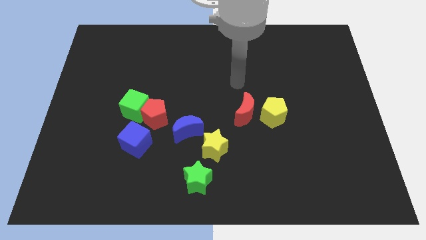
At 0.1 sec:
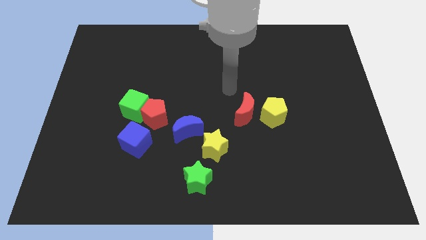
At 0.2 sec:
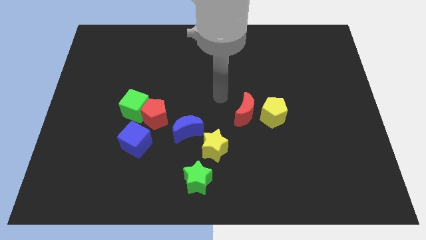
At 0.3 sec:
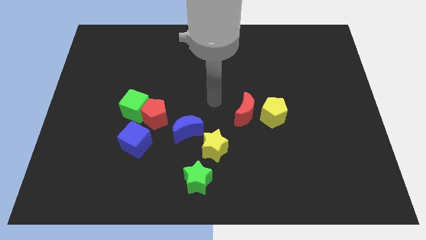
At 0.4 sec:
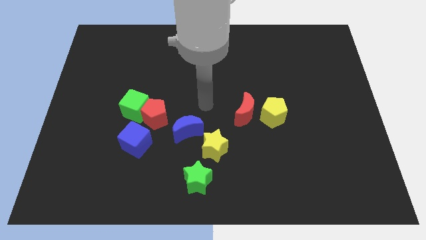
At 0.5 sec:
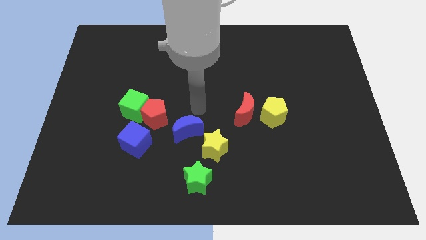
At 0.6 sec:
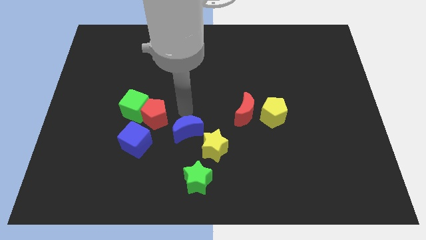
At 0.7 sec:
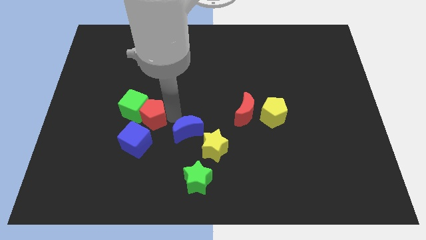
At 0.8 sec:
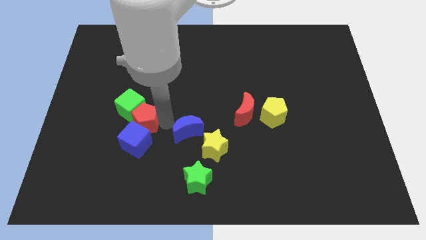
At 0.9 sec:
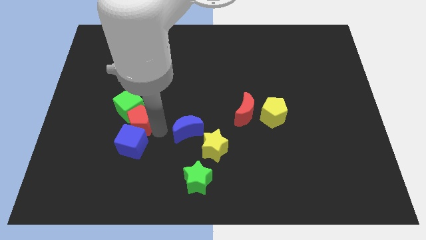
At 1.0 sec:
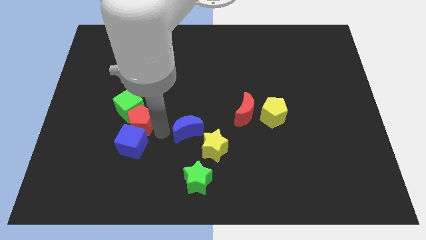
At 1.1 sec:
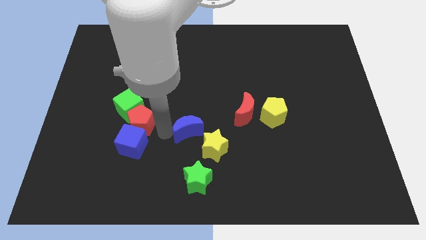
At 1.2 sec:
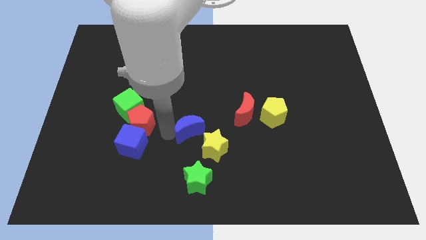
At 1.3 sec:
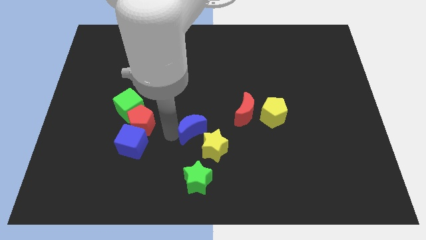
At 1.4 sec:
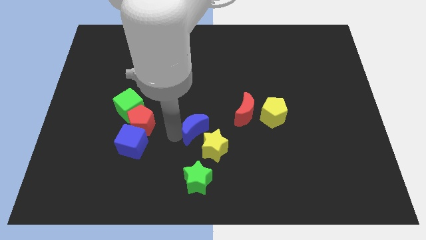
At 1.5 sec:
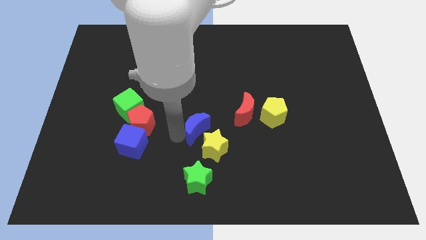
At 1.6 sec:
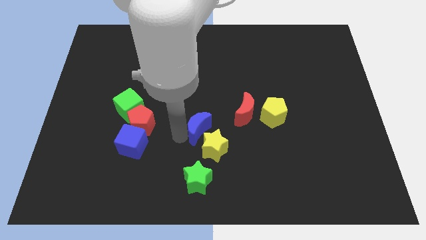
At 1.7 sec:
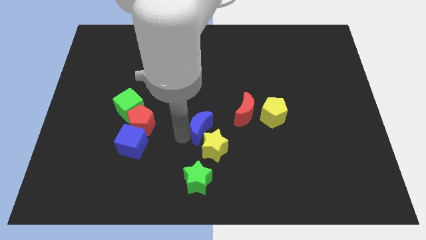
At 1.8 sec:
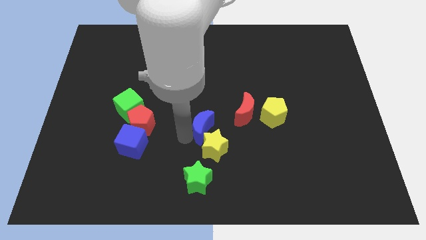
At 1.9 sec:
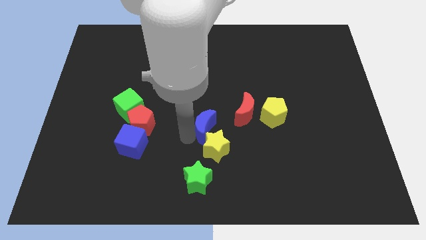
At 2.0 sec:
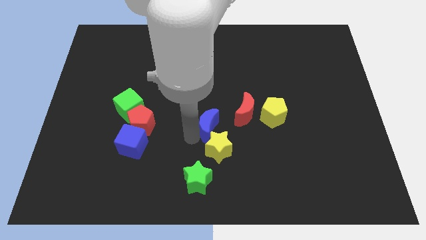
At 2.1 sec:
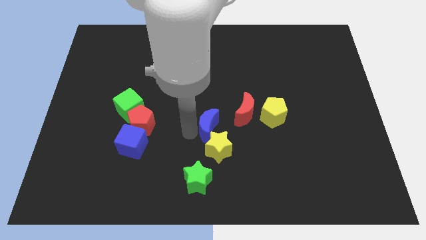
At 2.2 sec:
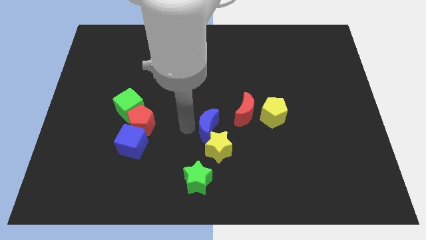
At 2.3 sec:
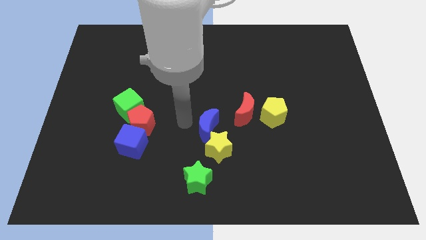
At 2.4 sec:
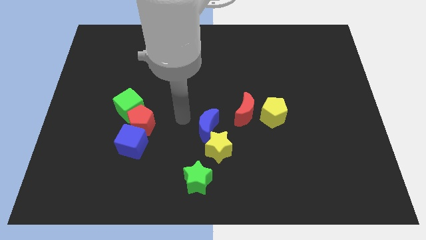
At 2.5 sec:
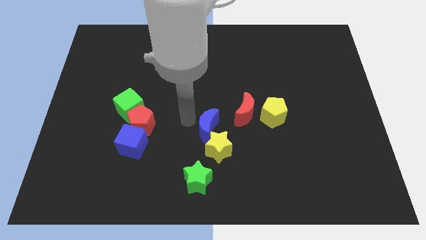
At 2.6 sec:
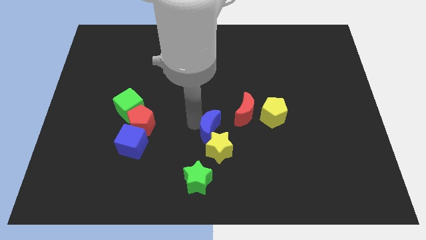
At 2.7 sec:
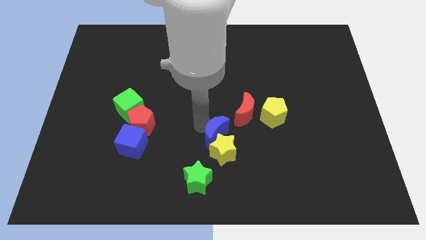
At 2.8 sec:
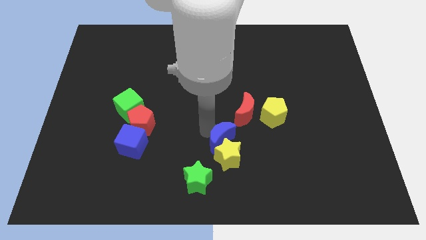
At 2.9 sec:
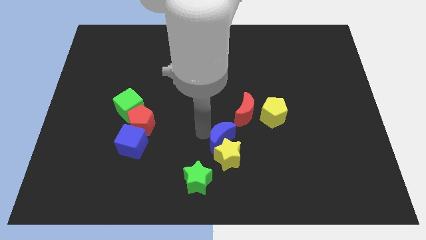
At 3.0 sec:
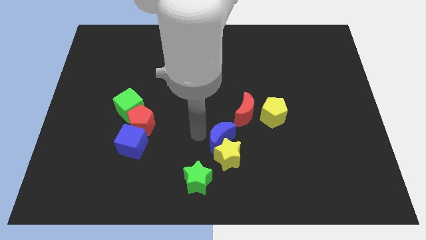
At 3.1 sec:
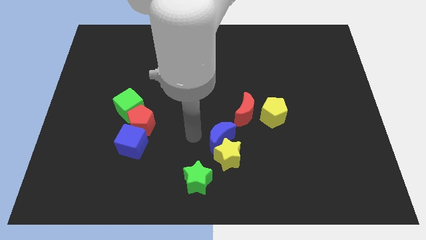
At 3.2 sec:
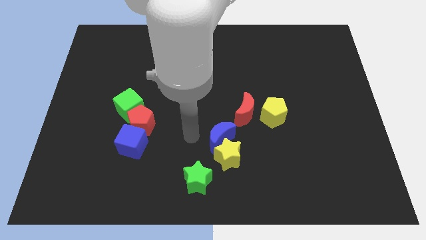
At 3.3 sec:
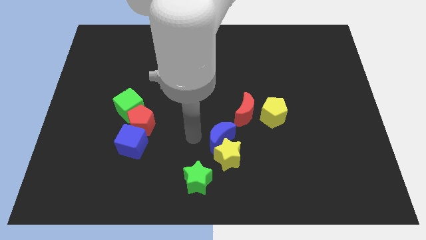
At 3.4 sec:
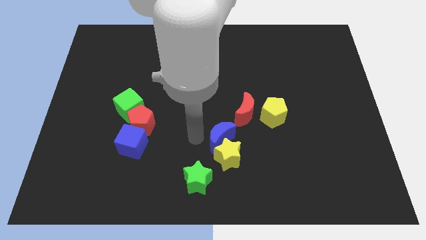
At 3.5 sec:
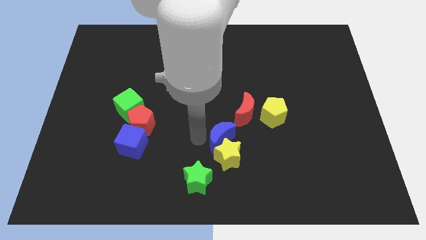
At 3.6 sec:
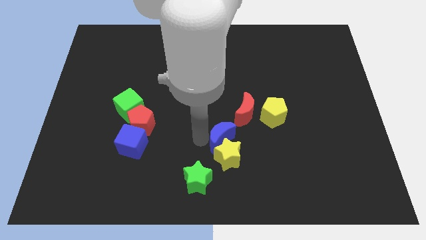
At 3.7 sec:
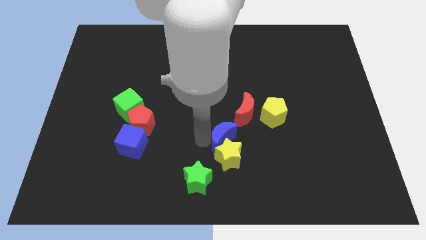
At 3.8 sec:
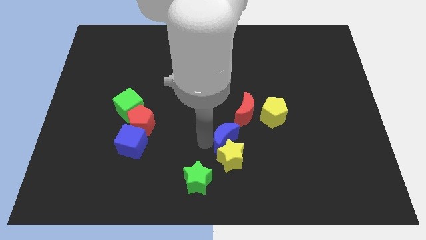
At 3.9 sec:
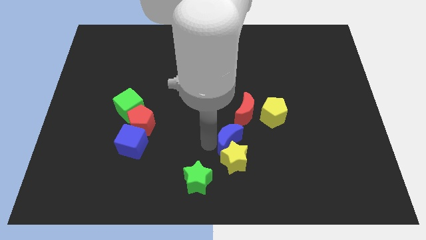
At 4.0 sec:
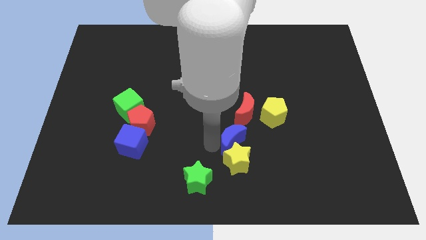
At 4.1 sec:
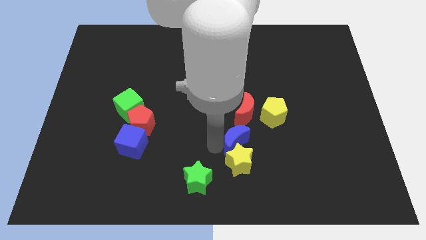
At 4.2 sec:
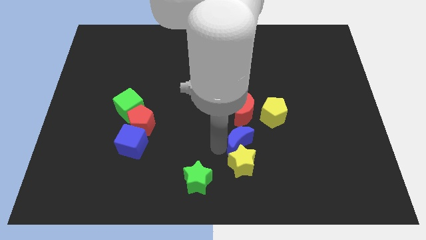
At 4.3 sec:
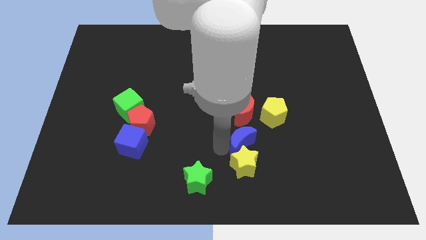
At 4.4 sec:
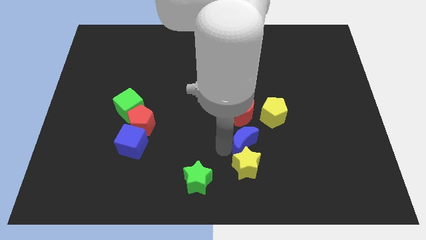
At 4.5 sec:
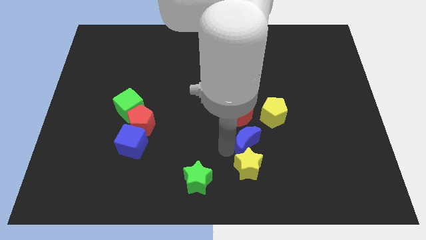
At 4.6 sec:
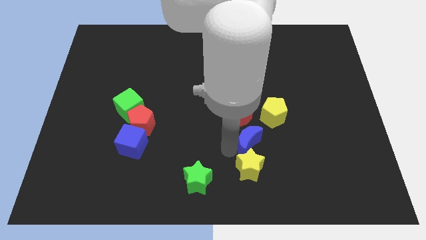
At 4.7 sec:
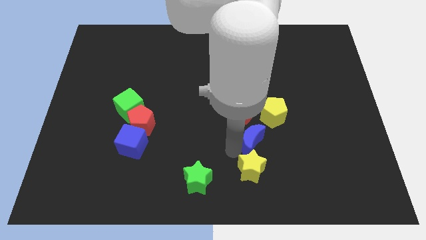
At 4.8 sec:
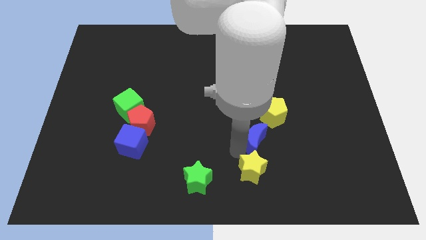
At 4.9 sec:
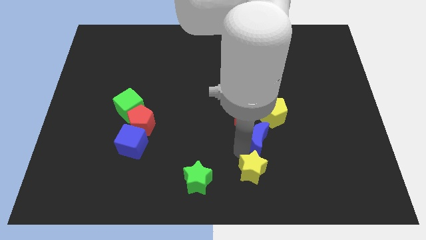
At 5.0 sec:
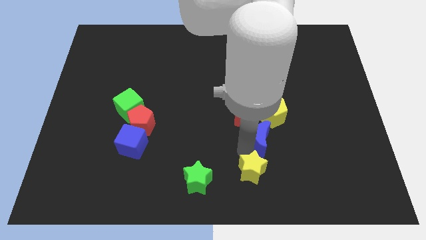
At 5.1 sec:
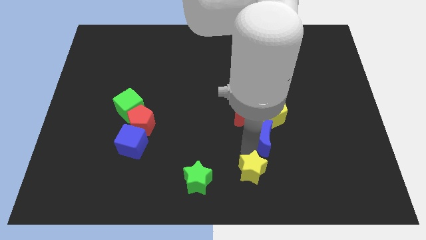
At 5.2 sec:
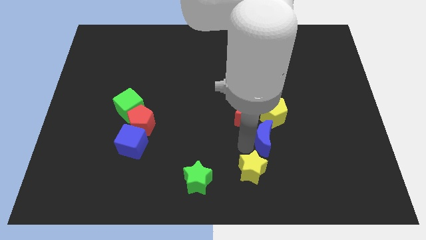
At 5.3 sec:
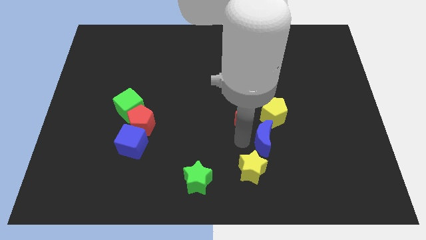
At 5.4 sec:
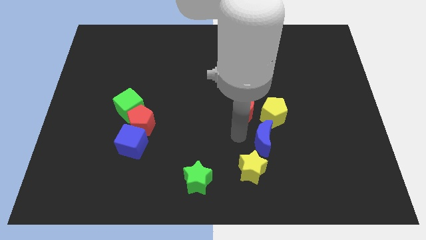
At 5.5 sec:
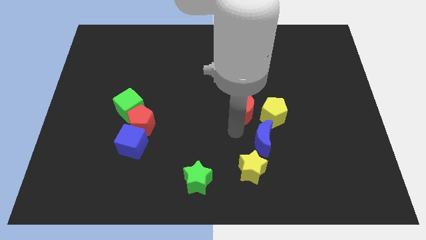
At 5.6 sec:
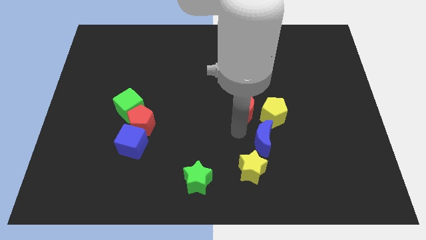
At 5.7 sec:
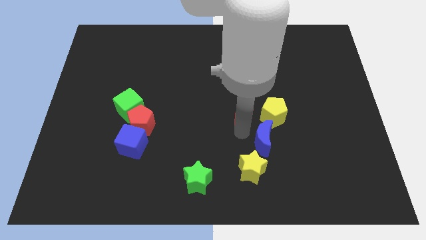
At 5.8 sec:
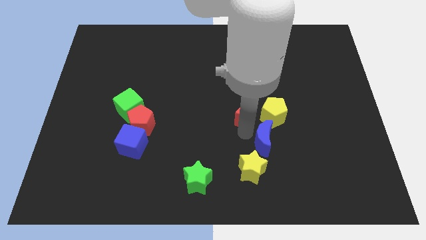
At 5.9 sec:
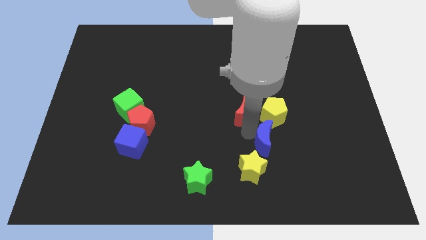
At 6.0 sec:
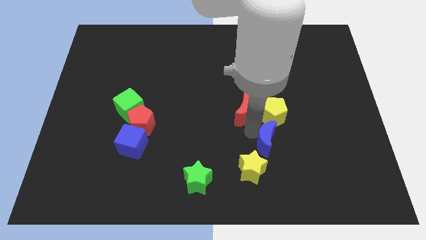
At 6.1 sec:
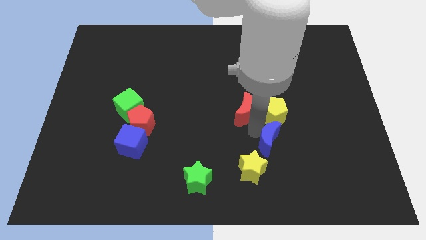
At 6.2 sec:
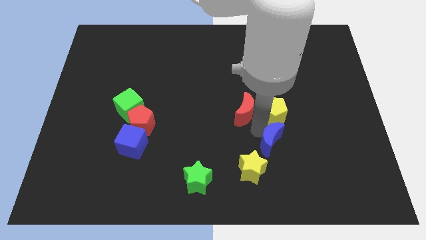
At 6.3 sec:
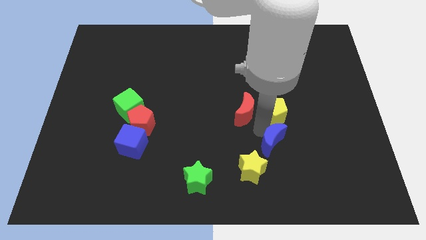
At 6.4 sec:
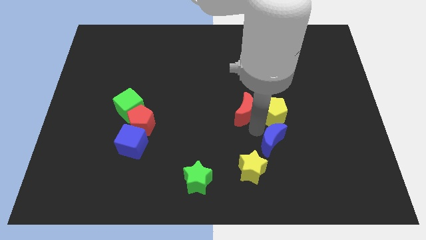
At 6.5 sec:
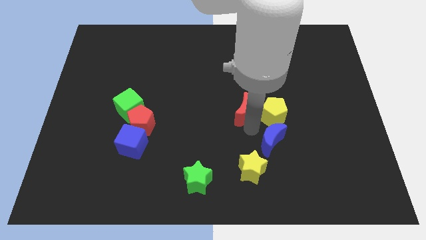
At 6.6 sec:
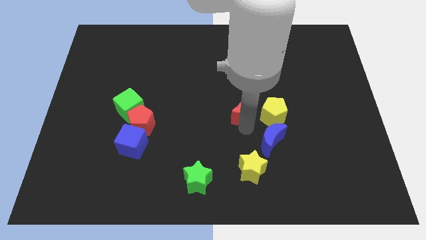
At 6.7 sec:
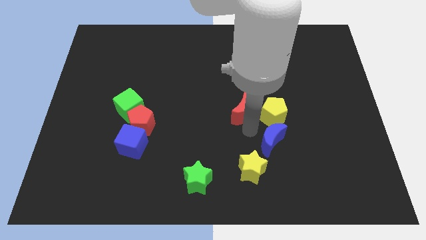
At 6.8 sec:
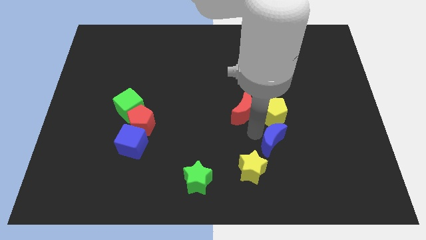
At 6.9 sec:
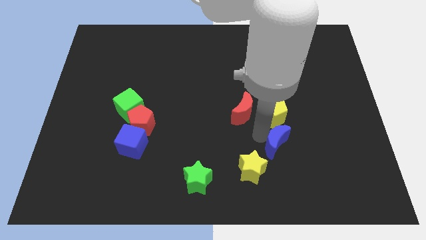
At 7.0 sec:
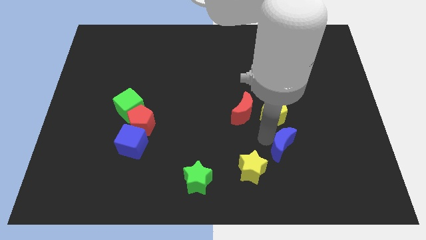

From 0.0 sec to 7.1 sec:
push the blue moon right

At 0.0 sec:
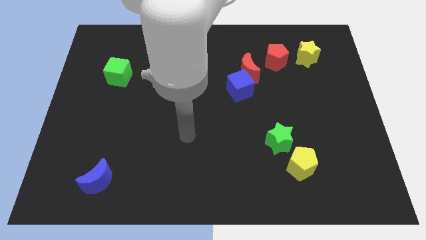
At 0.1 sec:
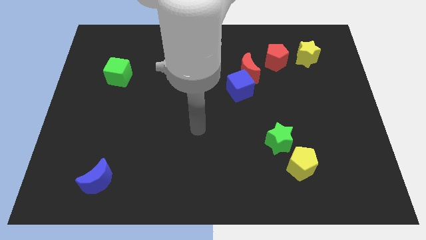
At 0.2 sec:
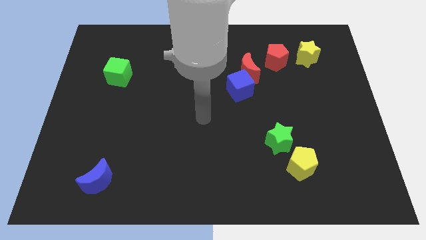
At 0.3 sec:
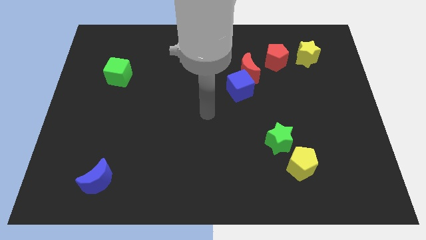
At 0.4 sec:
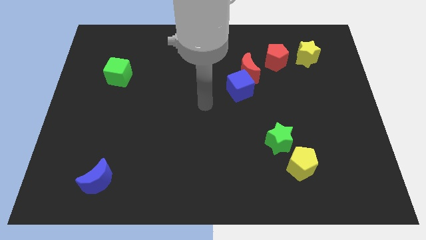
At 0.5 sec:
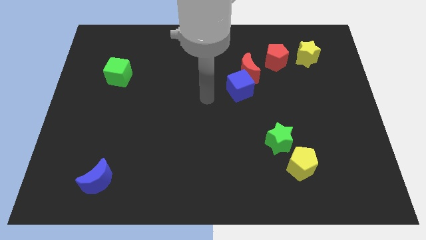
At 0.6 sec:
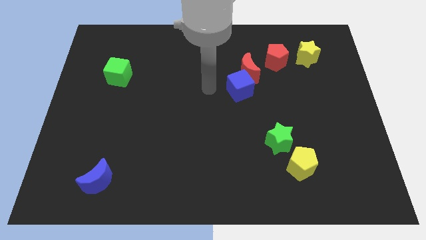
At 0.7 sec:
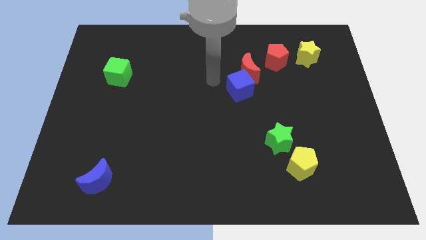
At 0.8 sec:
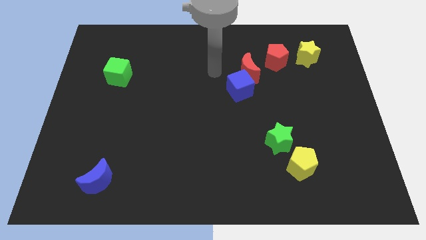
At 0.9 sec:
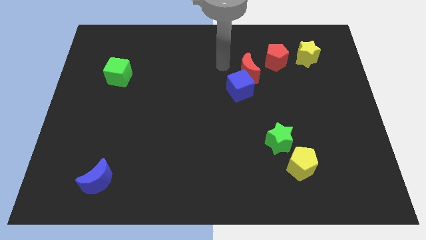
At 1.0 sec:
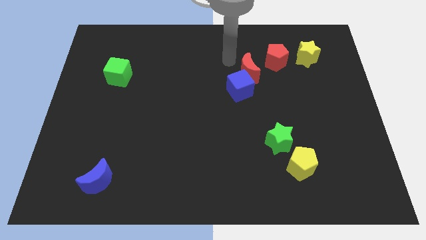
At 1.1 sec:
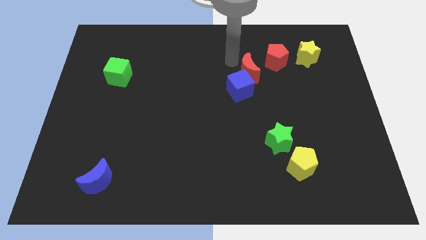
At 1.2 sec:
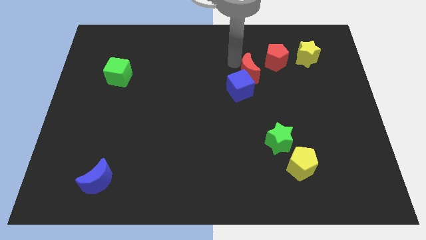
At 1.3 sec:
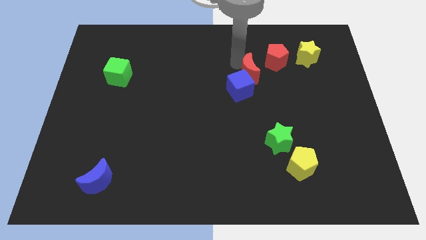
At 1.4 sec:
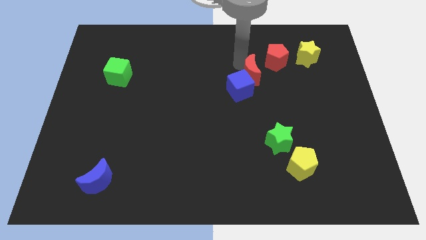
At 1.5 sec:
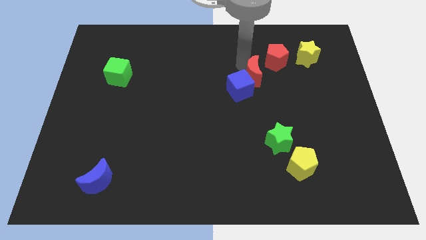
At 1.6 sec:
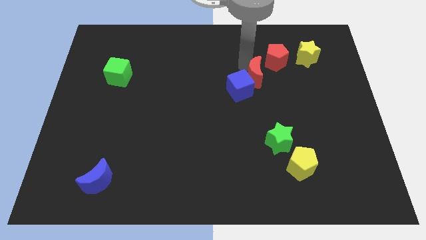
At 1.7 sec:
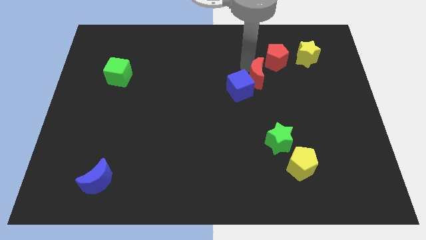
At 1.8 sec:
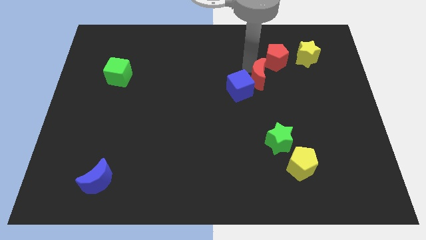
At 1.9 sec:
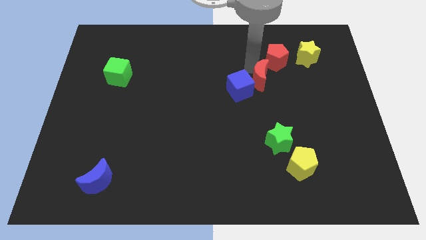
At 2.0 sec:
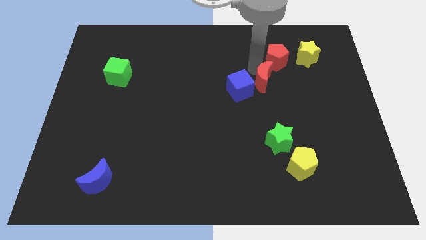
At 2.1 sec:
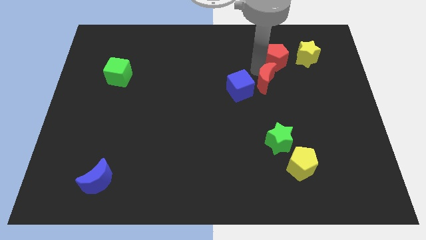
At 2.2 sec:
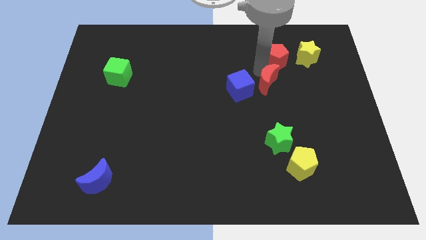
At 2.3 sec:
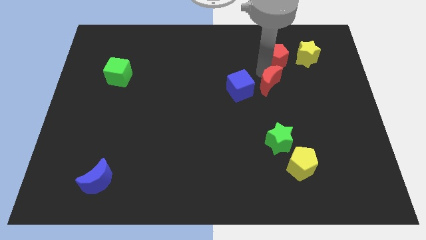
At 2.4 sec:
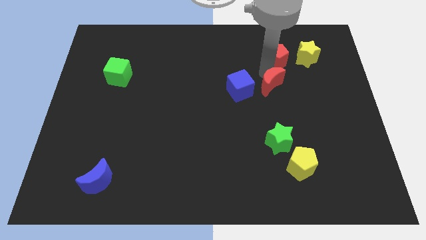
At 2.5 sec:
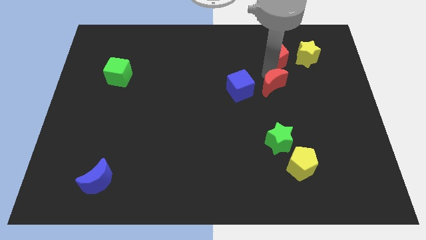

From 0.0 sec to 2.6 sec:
slightly slide the red moon down and then right
